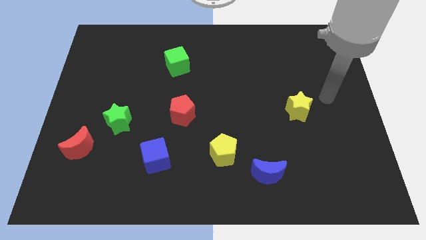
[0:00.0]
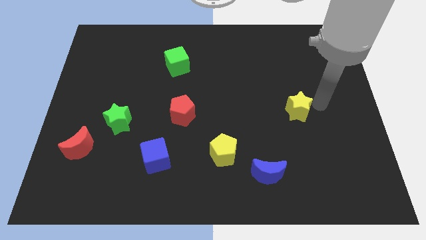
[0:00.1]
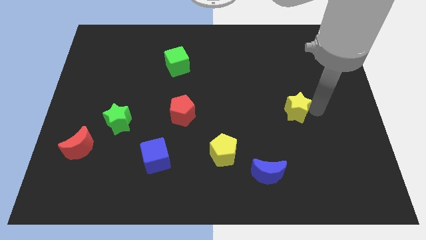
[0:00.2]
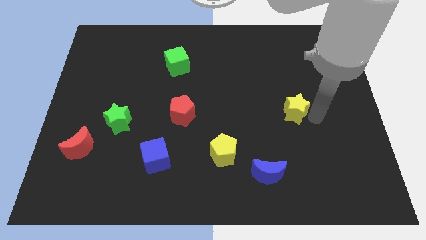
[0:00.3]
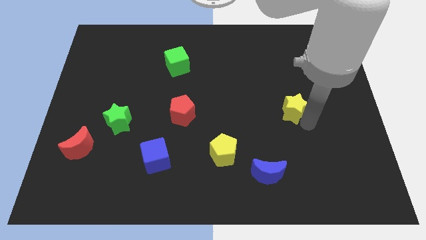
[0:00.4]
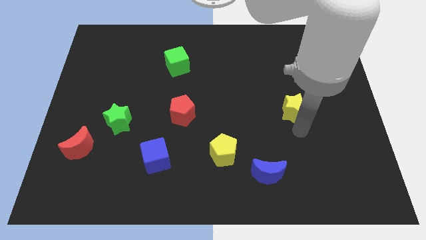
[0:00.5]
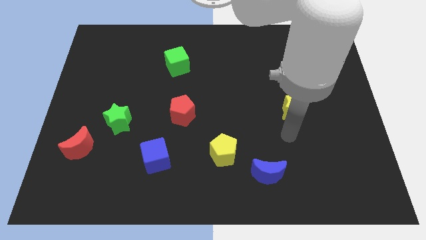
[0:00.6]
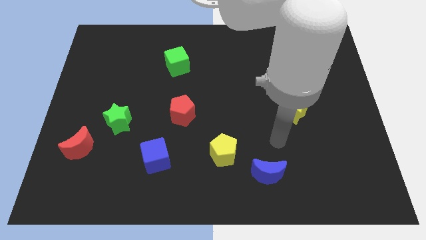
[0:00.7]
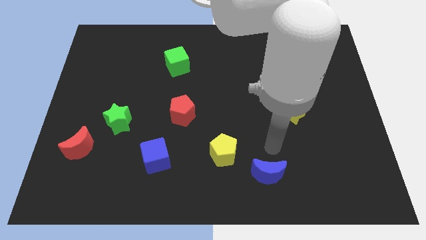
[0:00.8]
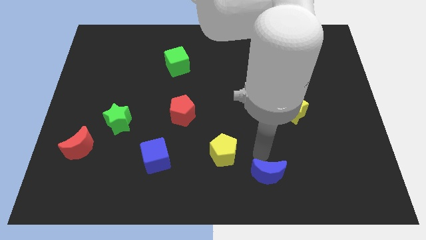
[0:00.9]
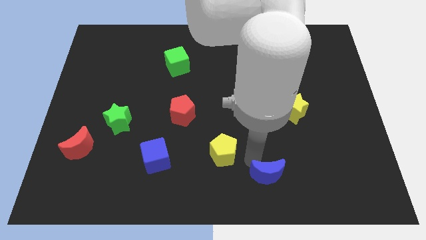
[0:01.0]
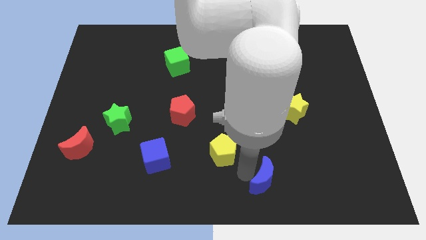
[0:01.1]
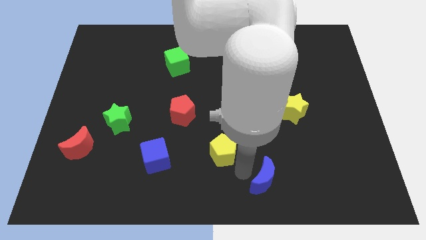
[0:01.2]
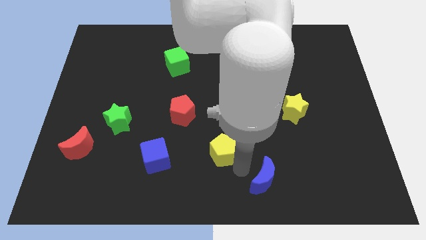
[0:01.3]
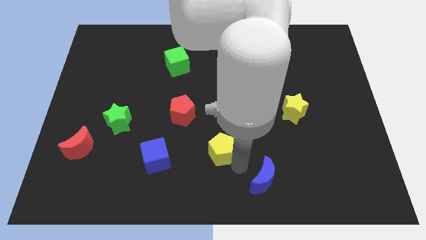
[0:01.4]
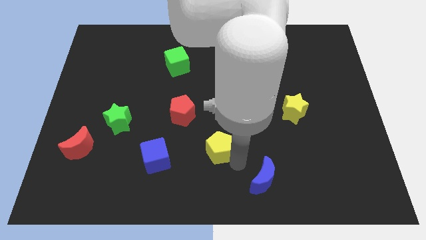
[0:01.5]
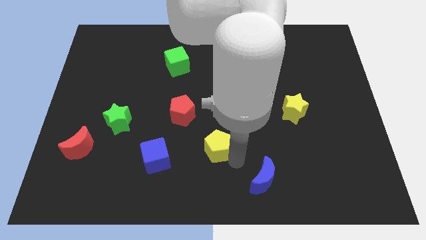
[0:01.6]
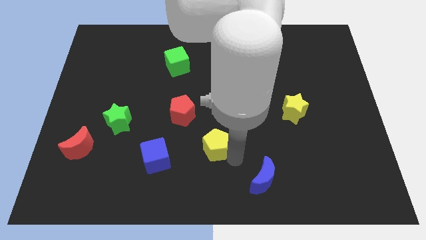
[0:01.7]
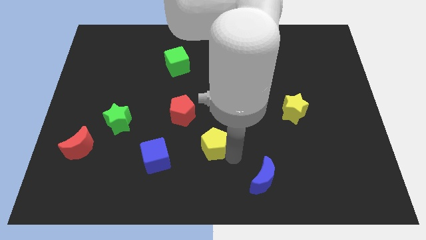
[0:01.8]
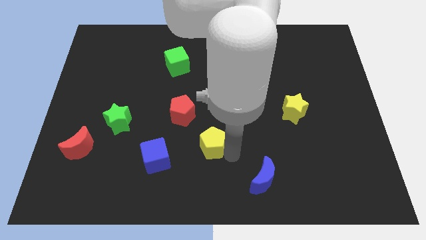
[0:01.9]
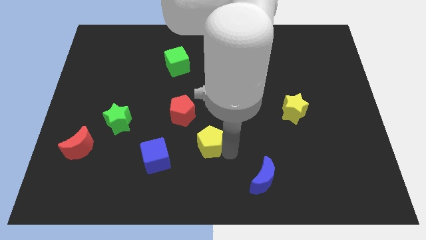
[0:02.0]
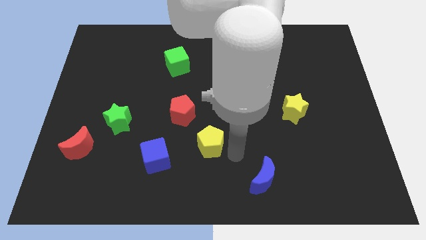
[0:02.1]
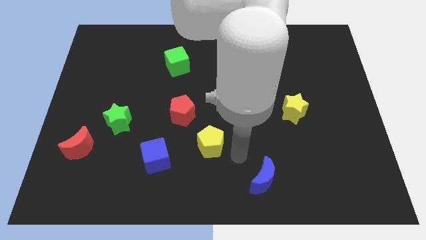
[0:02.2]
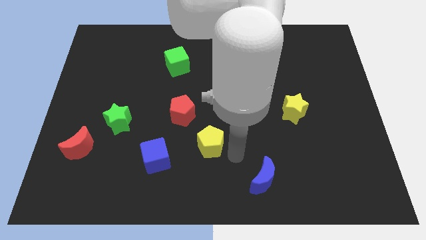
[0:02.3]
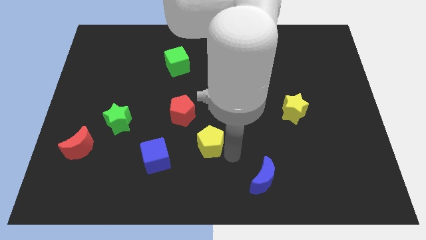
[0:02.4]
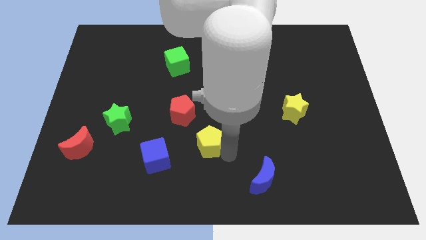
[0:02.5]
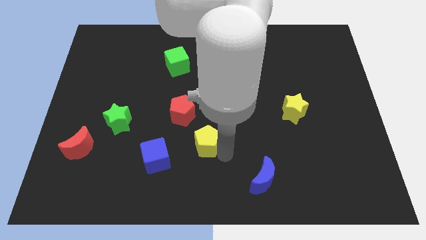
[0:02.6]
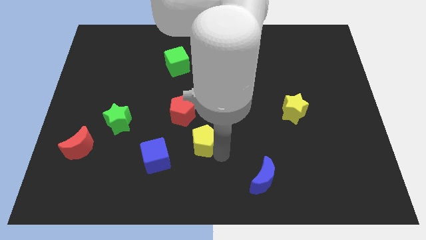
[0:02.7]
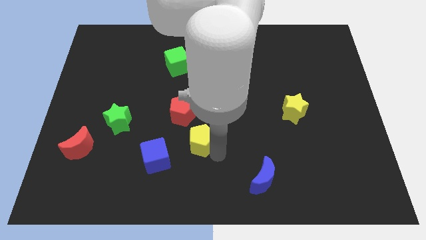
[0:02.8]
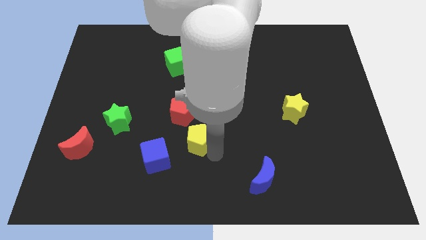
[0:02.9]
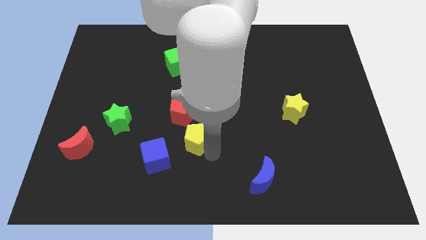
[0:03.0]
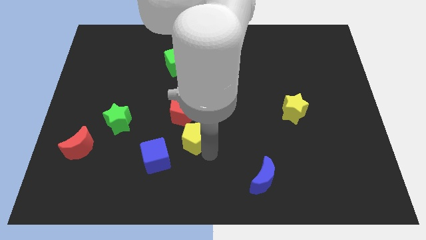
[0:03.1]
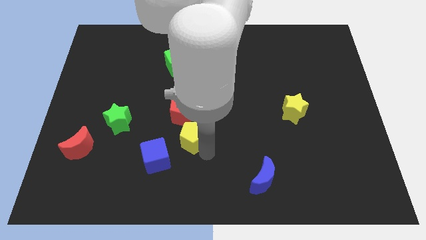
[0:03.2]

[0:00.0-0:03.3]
slide the yellow pentagon diagonally up and to the left a little

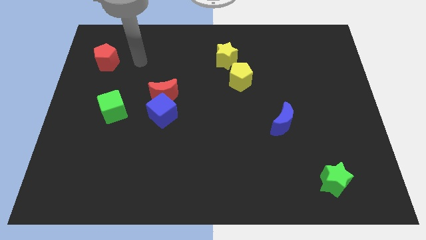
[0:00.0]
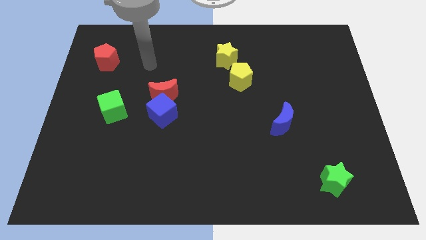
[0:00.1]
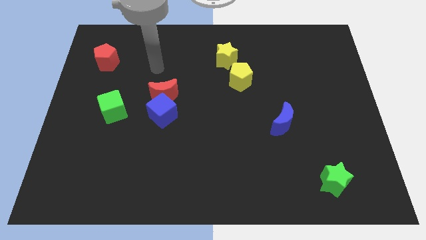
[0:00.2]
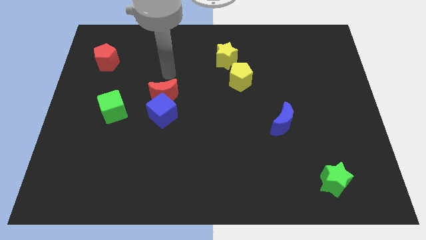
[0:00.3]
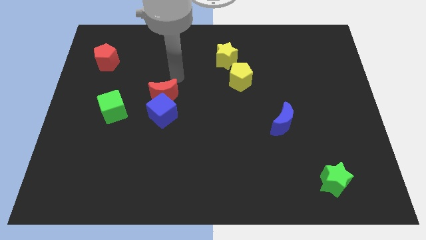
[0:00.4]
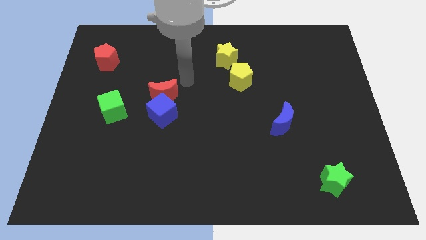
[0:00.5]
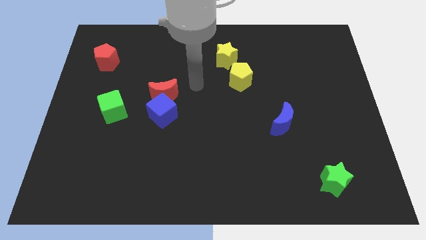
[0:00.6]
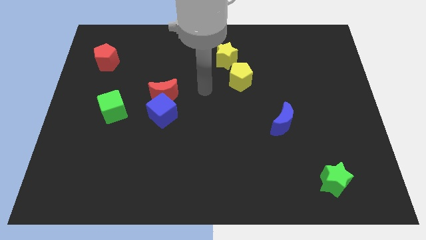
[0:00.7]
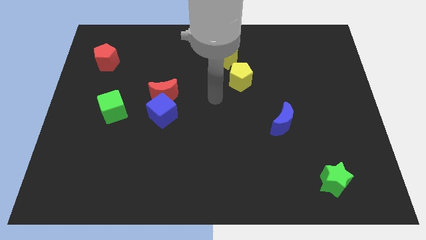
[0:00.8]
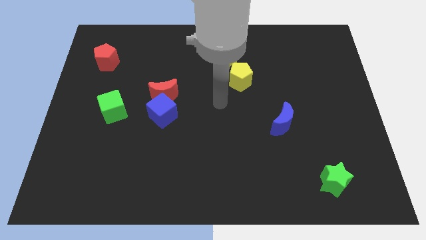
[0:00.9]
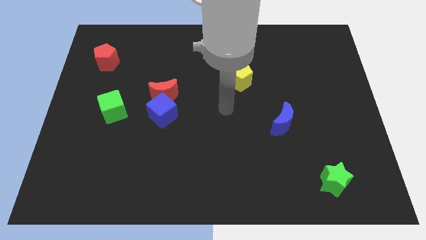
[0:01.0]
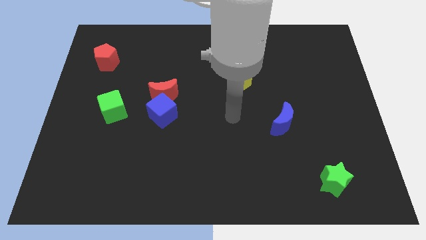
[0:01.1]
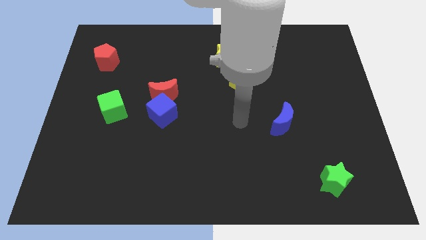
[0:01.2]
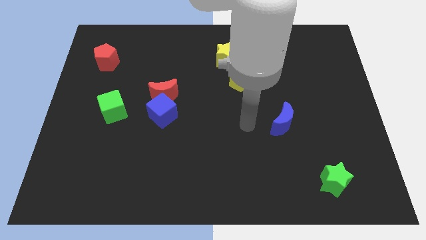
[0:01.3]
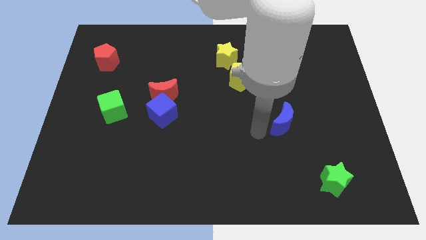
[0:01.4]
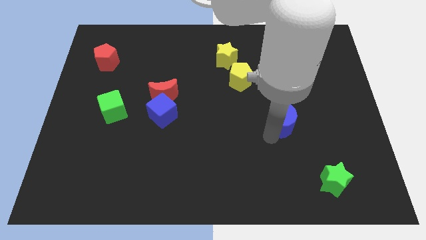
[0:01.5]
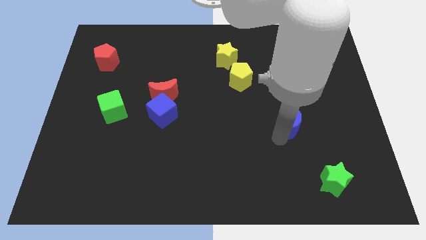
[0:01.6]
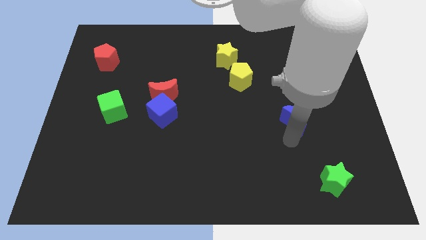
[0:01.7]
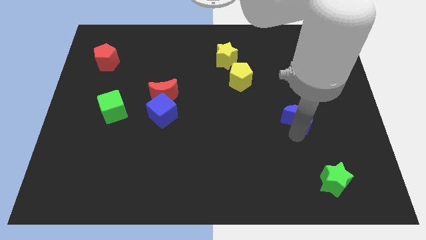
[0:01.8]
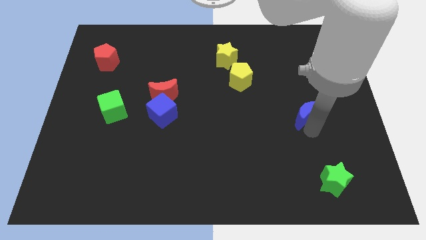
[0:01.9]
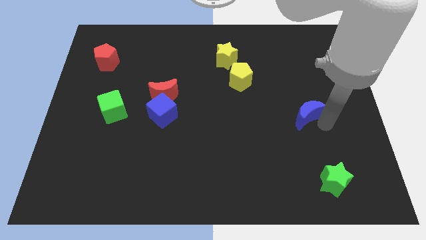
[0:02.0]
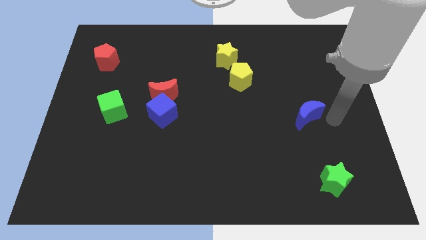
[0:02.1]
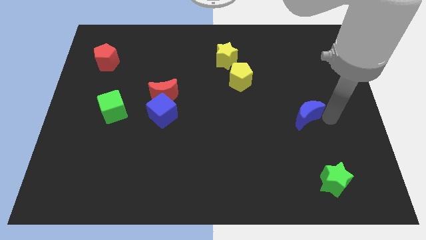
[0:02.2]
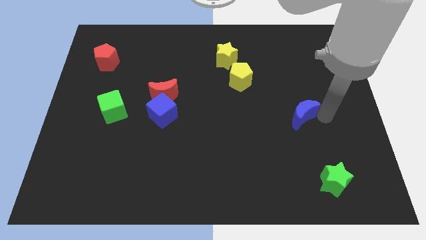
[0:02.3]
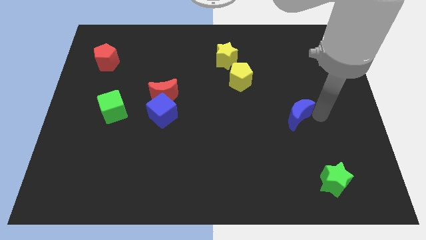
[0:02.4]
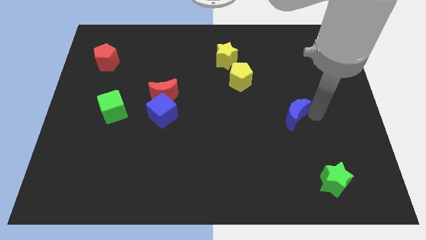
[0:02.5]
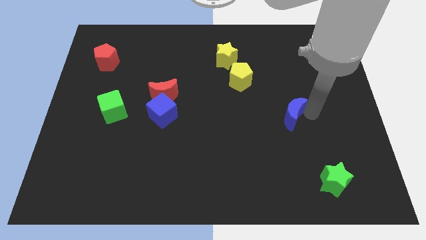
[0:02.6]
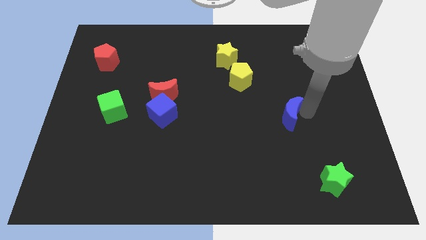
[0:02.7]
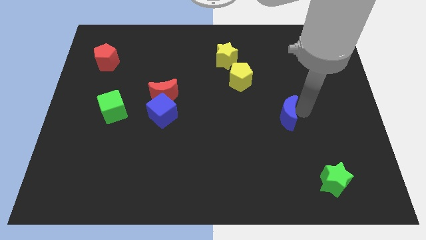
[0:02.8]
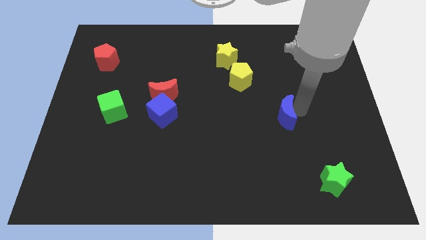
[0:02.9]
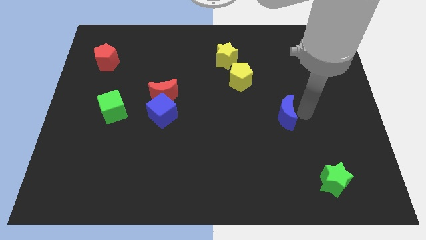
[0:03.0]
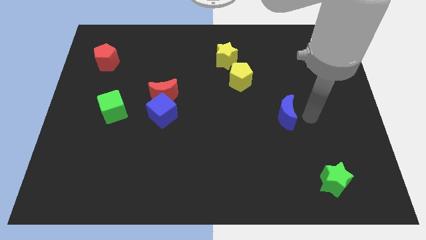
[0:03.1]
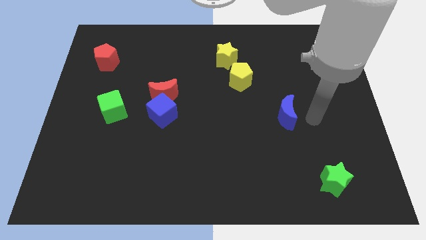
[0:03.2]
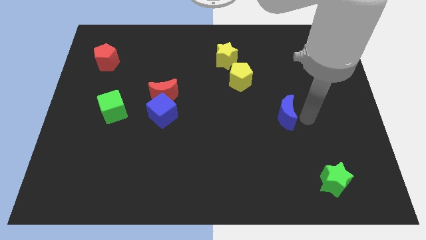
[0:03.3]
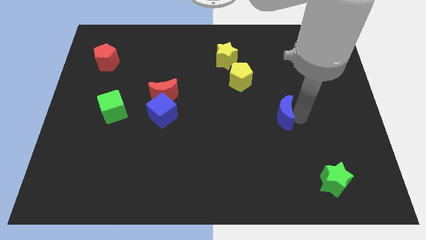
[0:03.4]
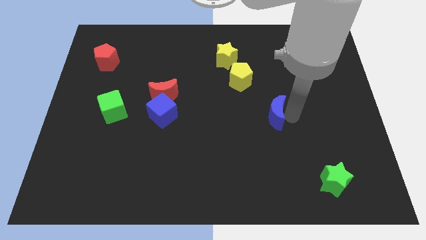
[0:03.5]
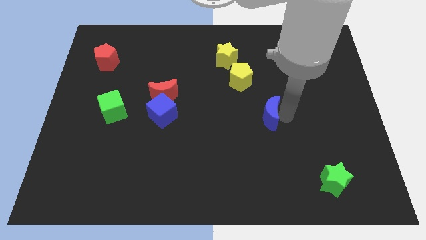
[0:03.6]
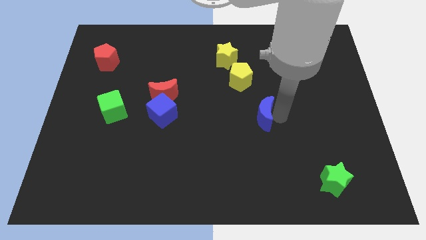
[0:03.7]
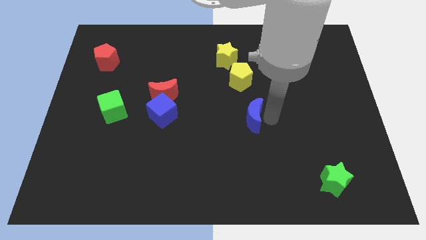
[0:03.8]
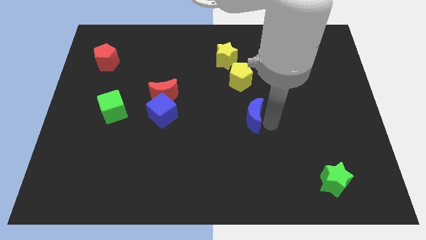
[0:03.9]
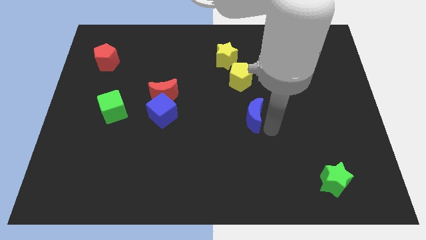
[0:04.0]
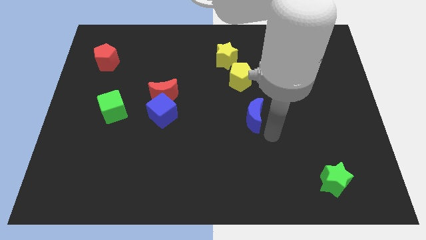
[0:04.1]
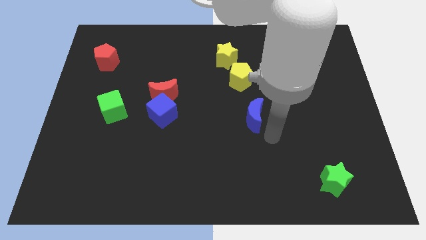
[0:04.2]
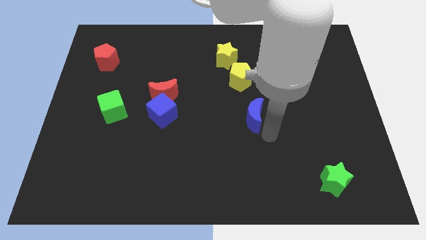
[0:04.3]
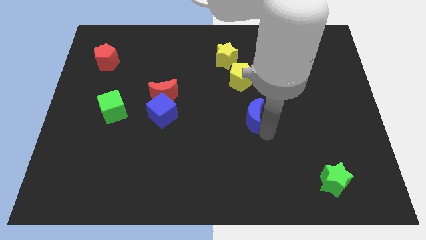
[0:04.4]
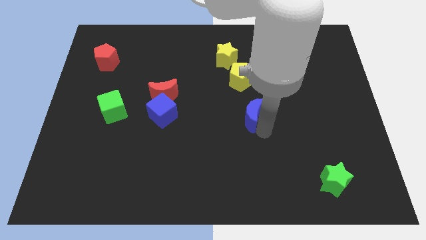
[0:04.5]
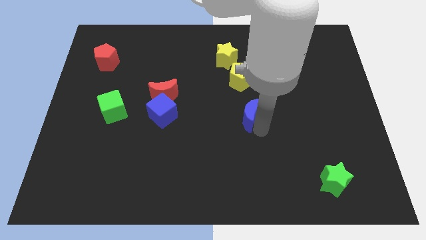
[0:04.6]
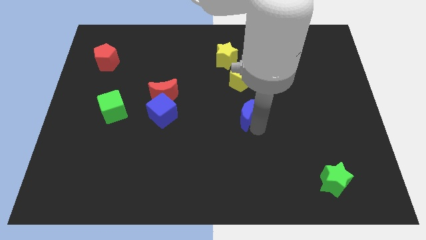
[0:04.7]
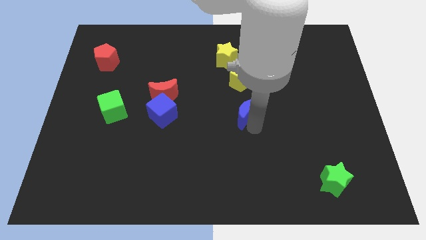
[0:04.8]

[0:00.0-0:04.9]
slightly move the blue moon upwards and to the left diagonally
